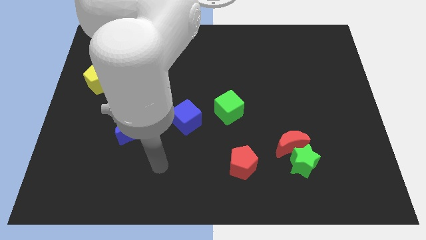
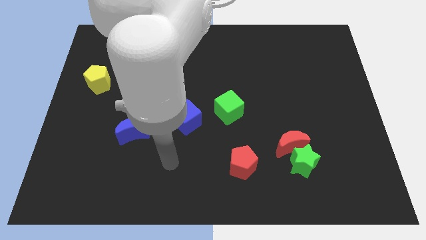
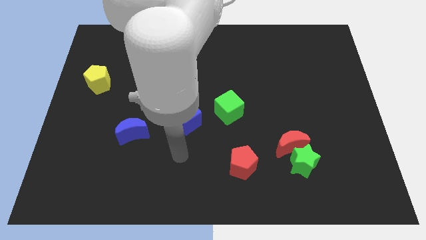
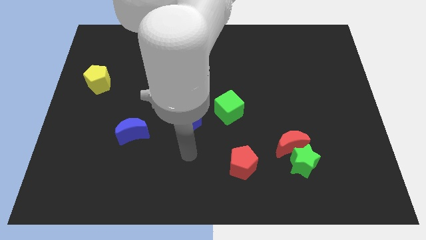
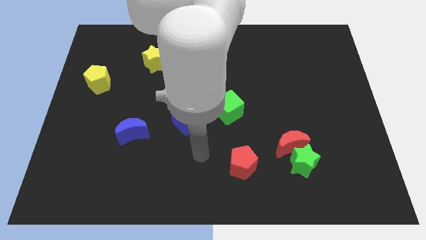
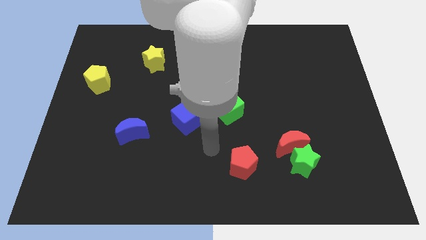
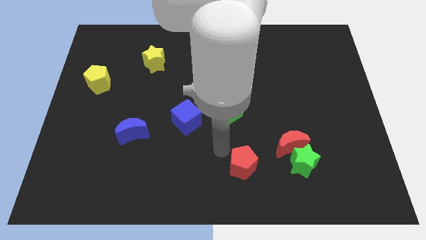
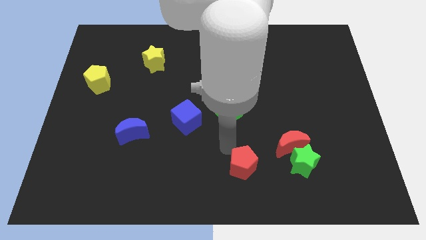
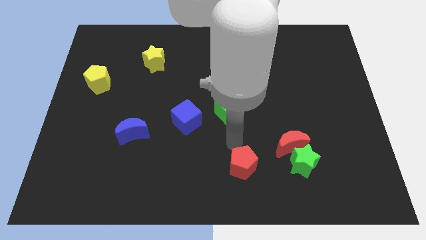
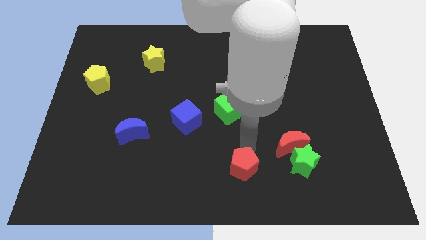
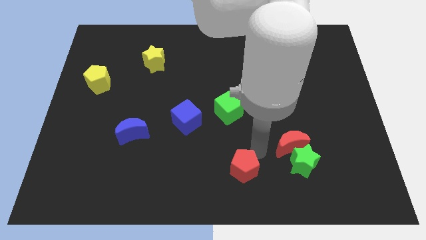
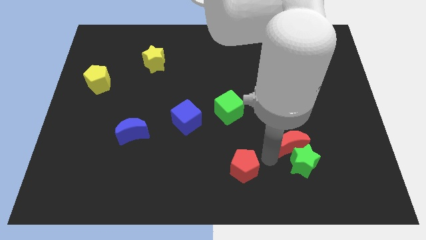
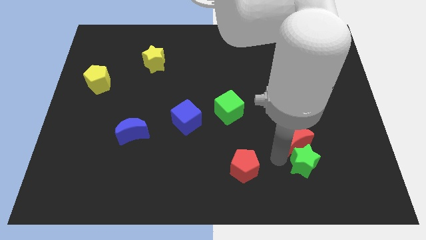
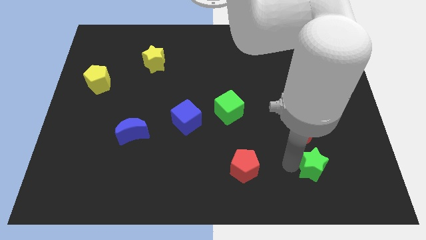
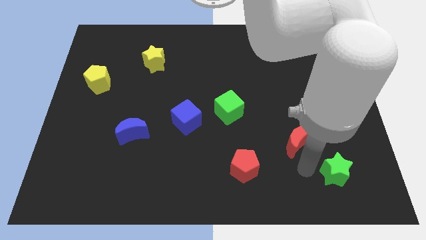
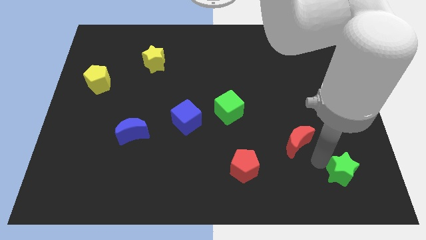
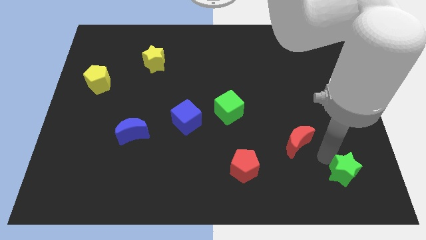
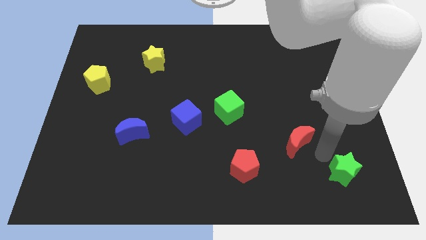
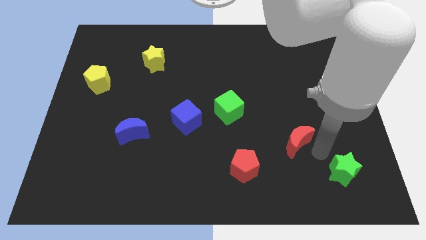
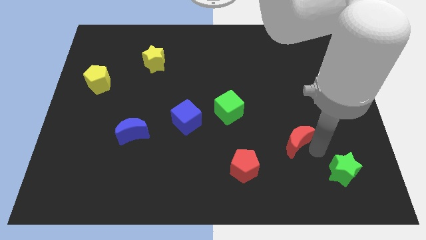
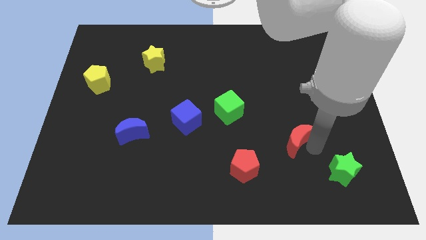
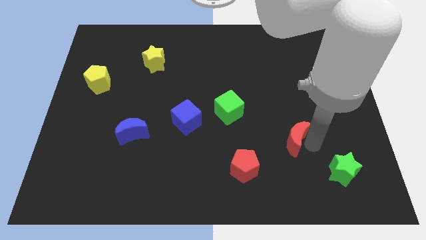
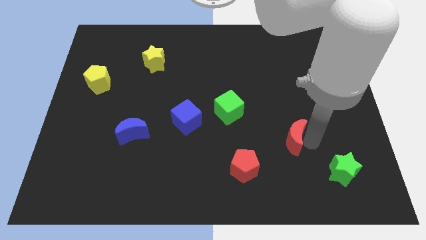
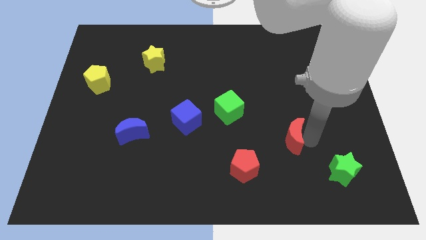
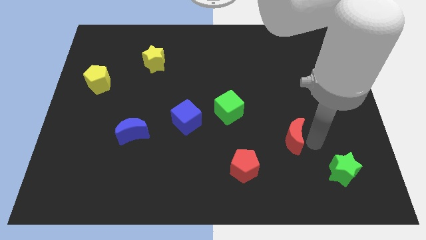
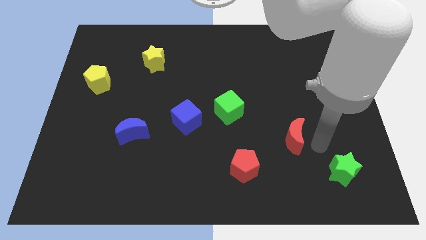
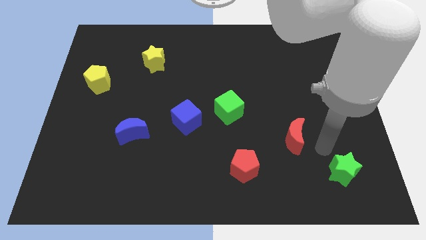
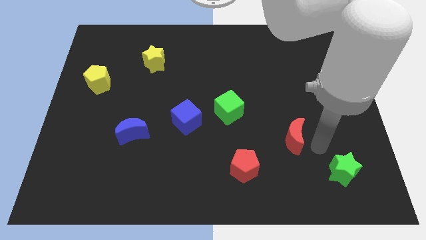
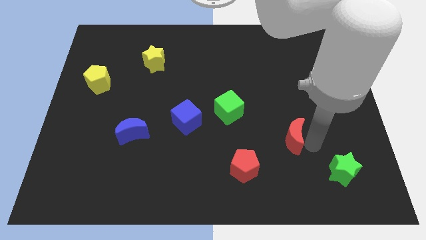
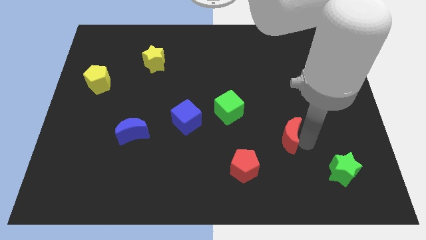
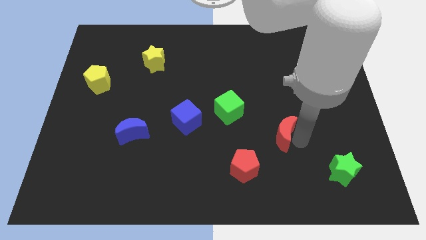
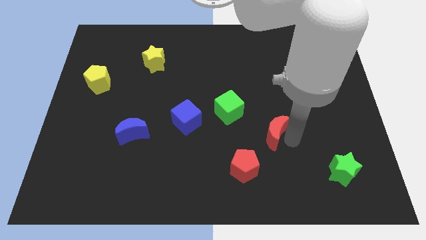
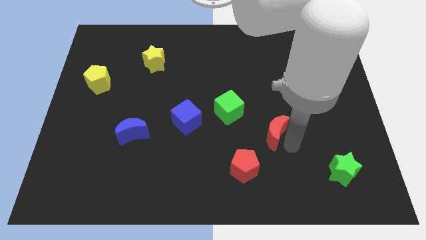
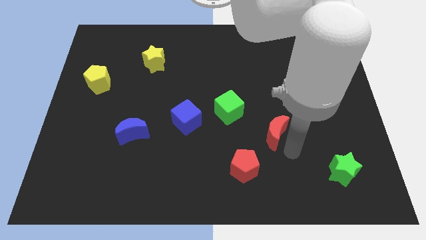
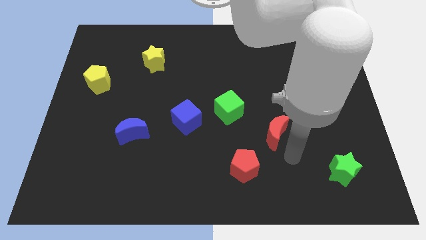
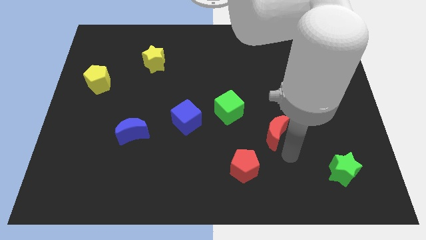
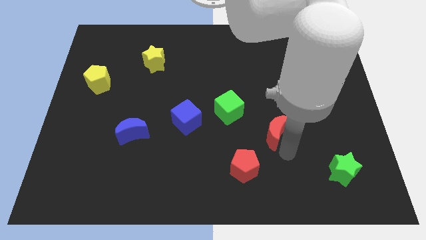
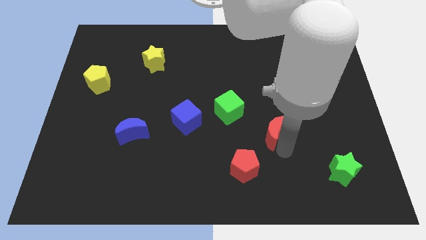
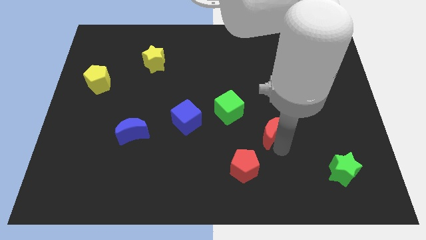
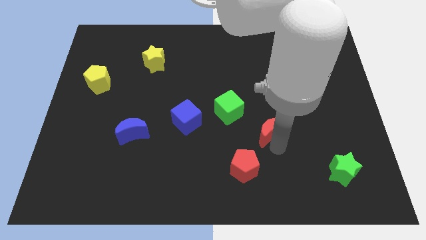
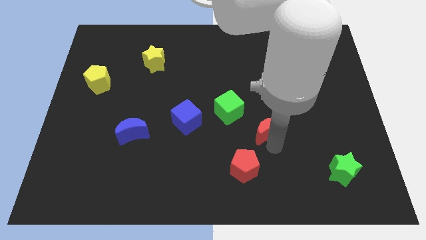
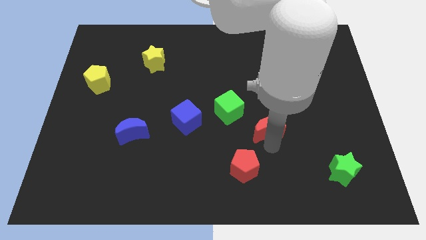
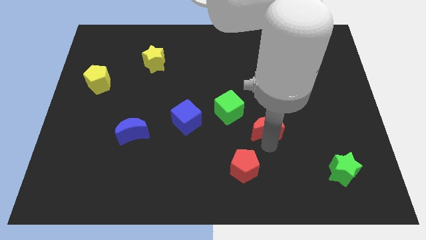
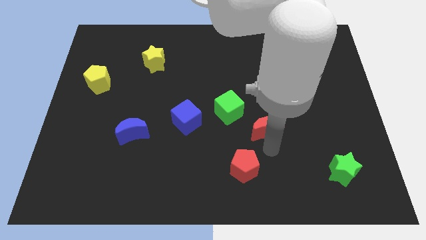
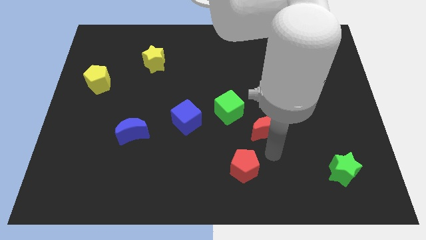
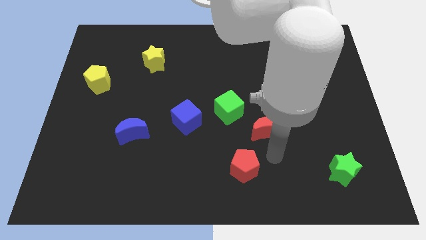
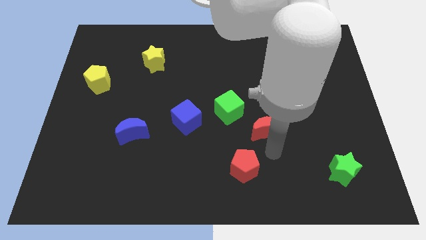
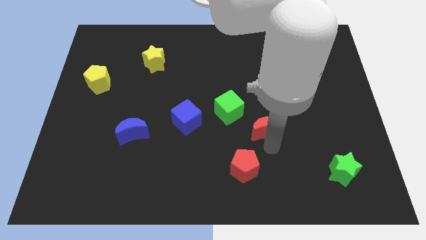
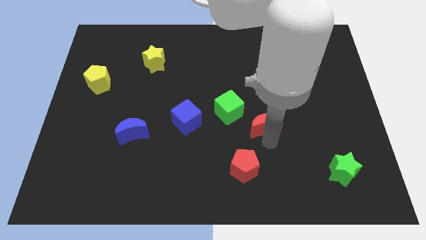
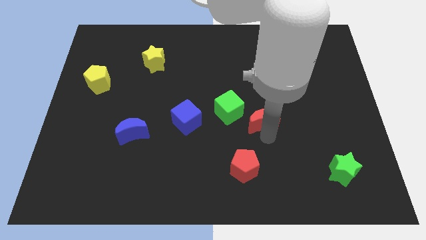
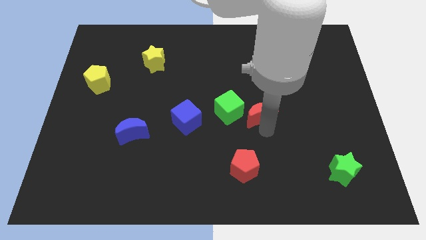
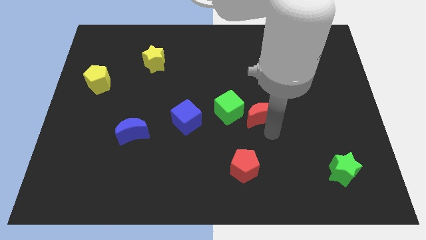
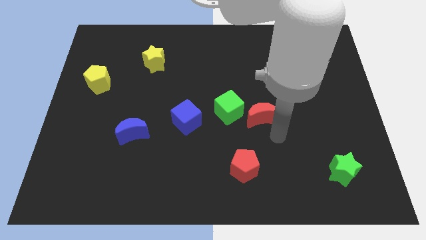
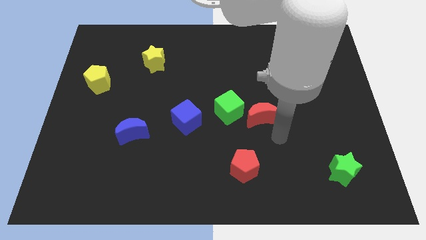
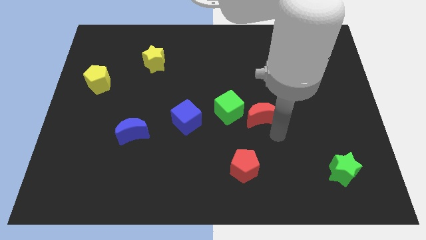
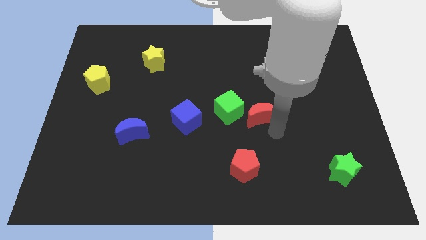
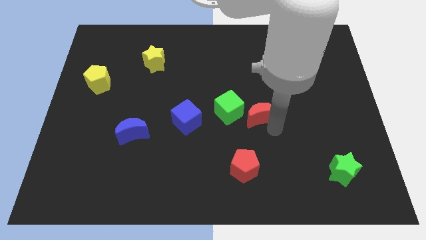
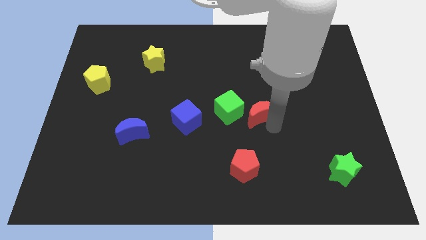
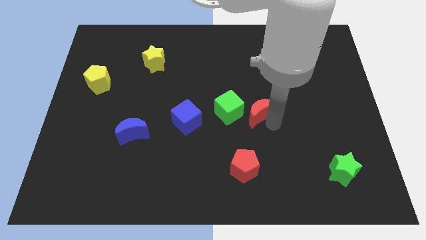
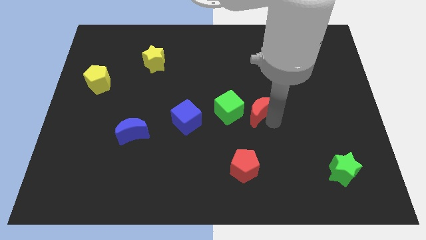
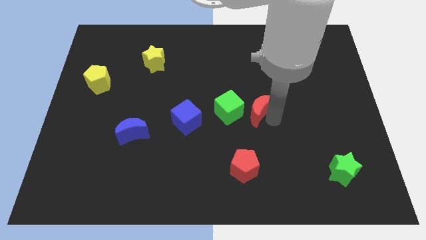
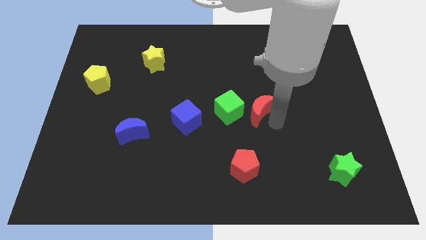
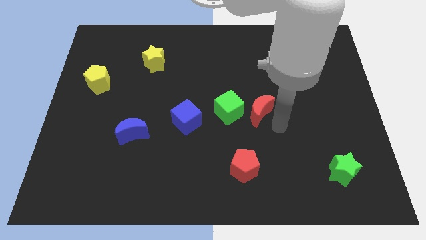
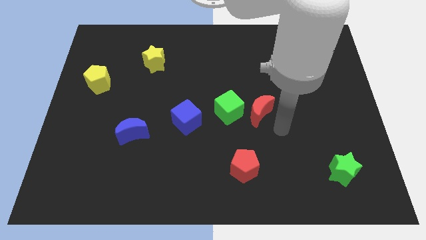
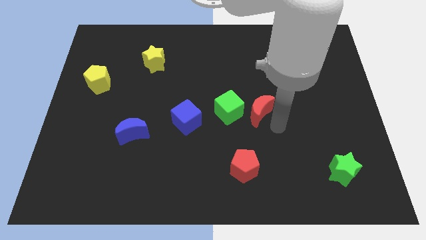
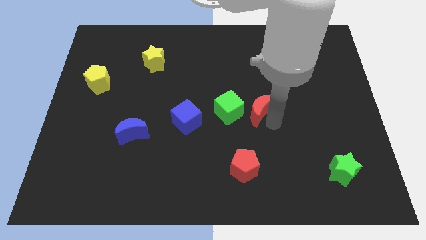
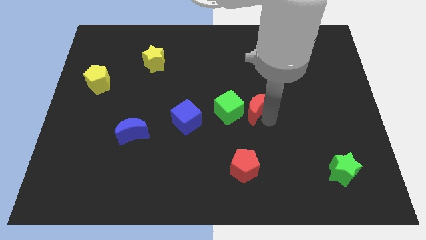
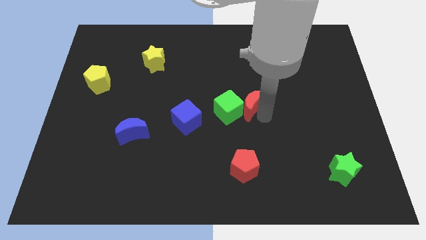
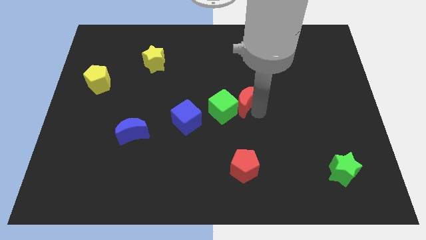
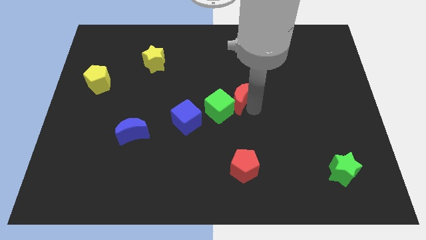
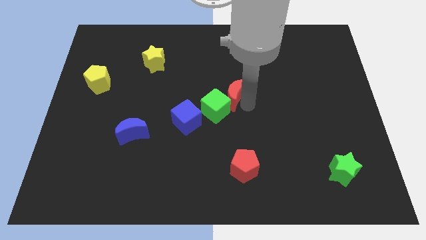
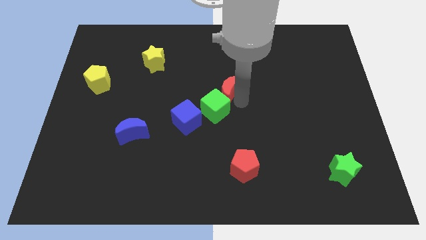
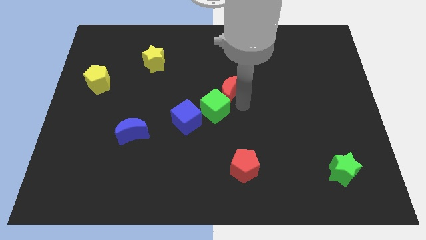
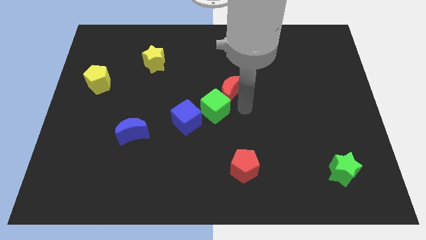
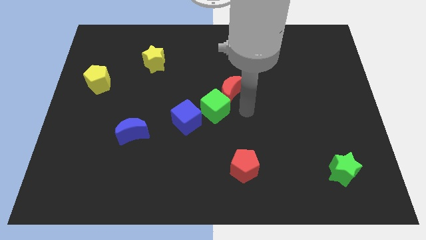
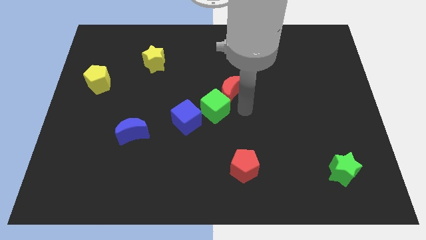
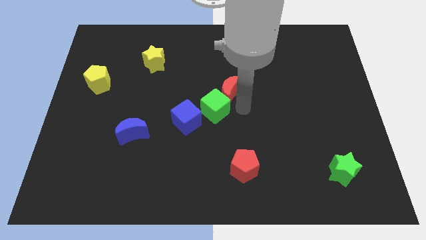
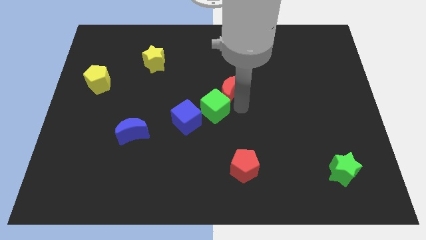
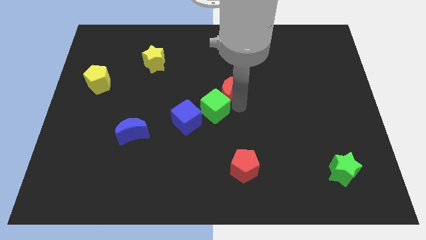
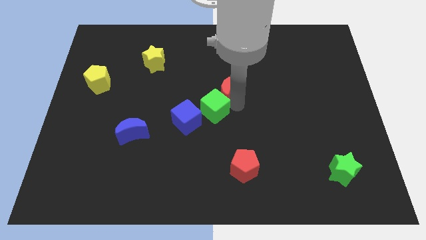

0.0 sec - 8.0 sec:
move the red moon diagonally upwards and left

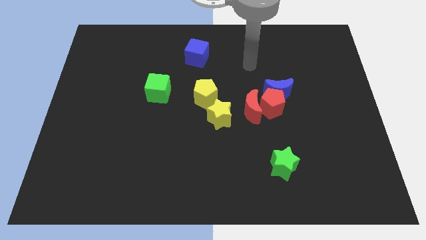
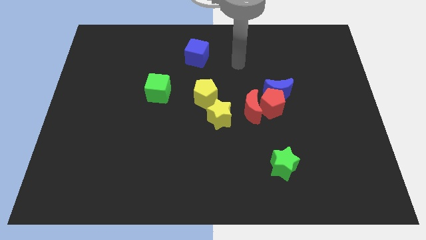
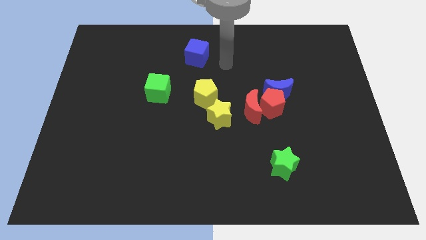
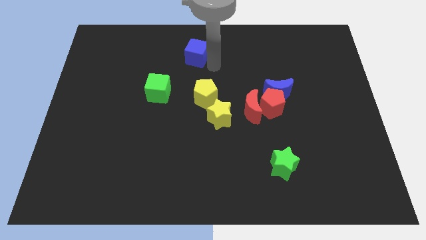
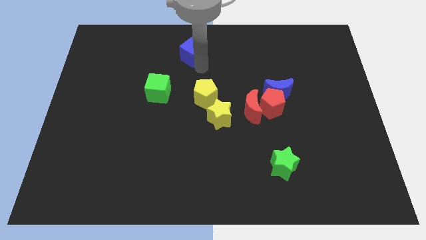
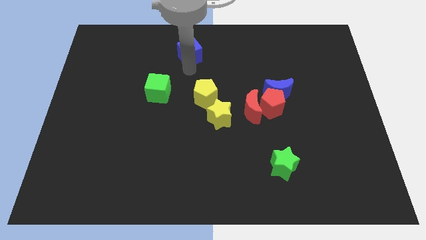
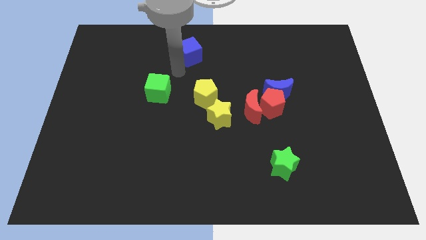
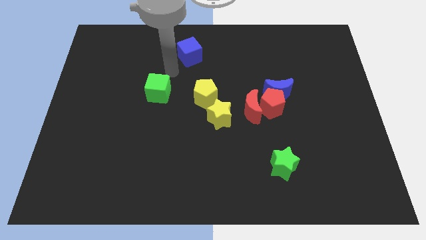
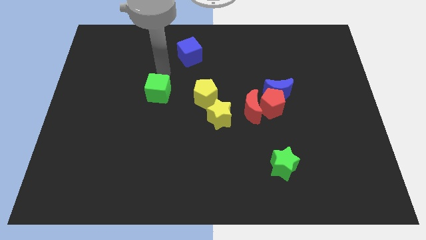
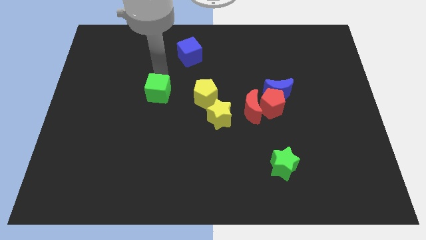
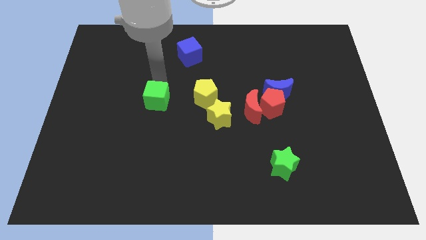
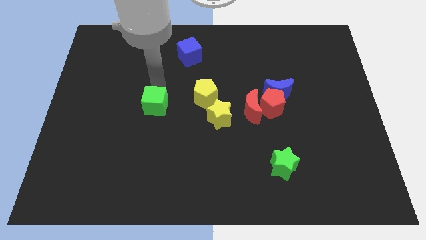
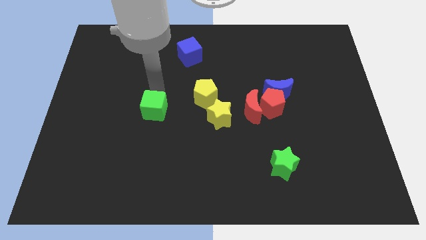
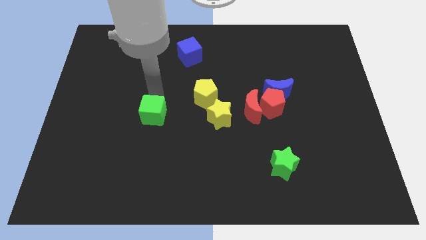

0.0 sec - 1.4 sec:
slide the green cube down somewhat
